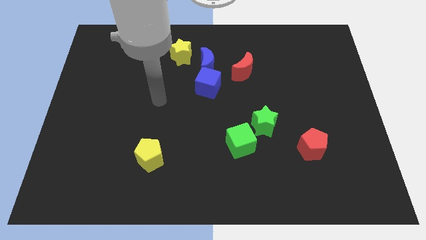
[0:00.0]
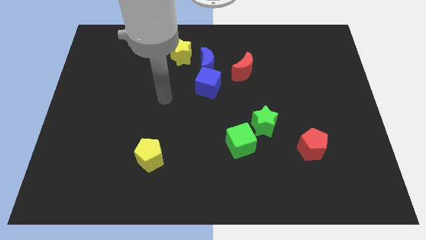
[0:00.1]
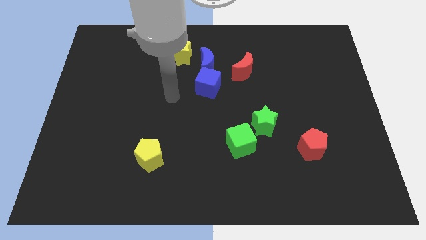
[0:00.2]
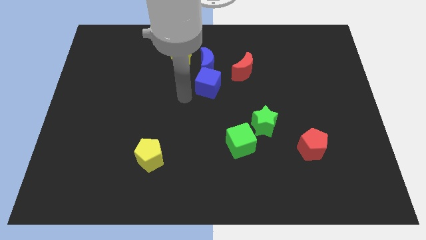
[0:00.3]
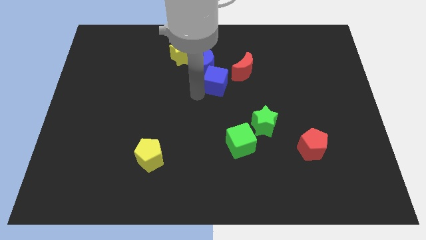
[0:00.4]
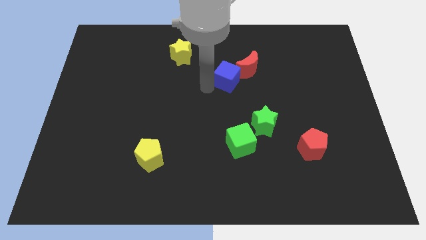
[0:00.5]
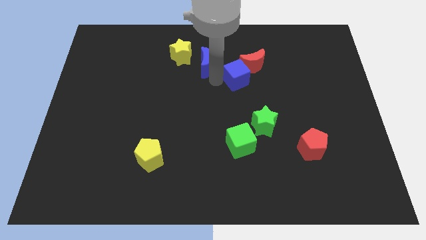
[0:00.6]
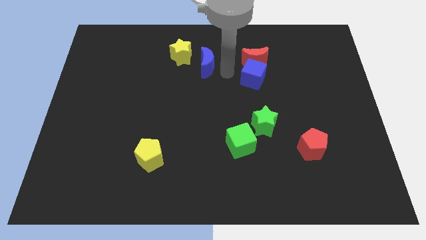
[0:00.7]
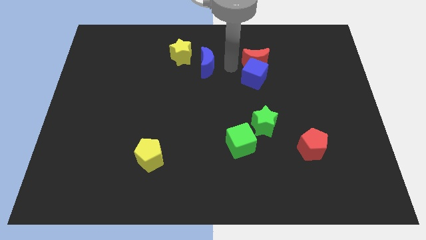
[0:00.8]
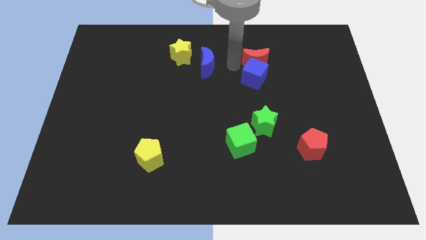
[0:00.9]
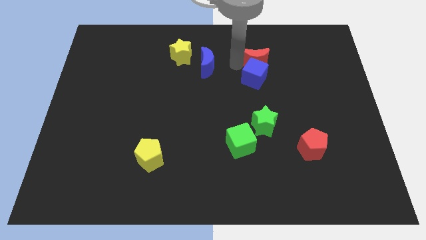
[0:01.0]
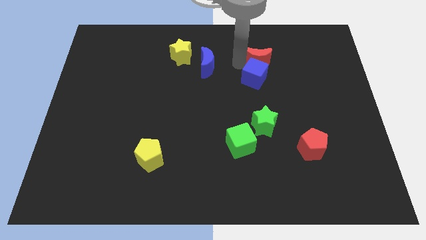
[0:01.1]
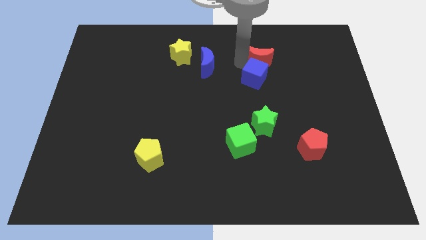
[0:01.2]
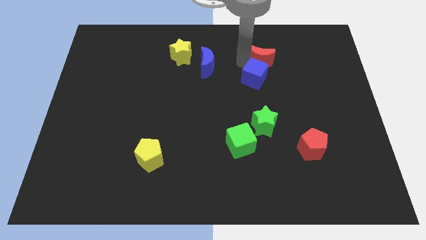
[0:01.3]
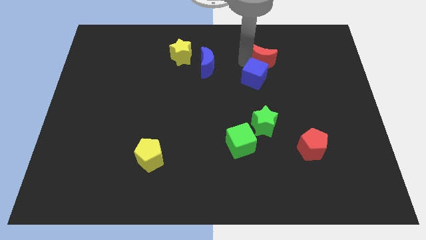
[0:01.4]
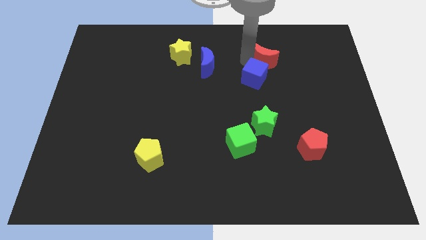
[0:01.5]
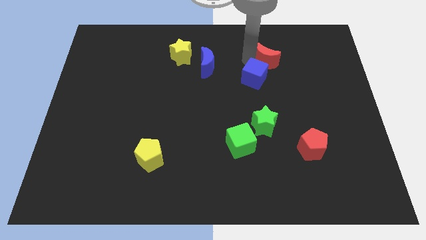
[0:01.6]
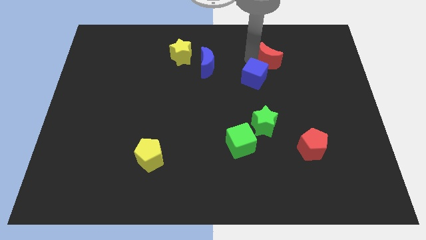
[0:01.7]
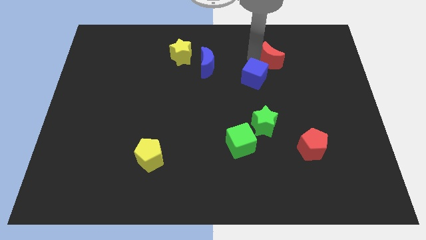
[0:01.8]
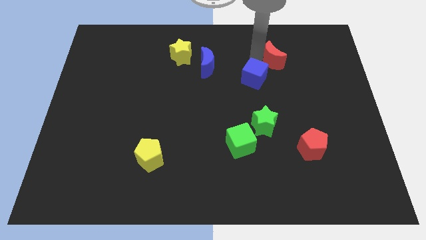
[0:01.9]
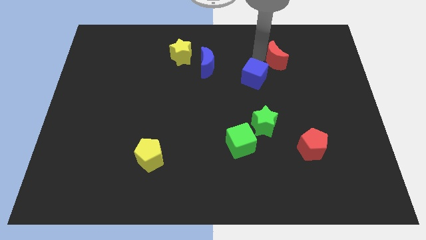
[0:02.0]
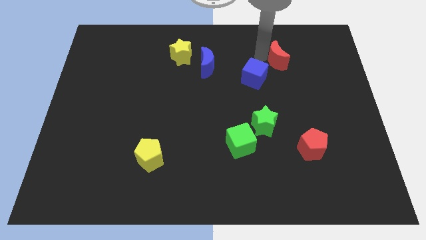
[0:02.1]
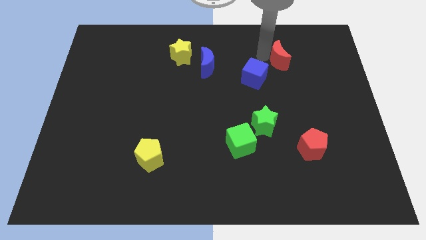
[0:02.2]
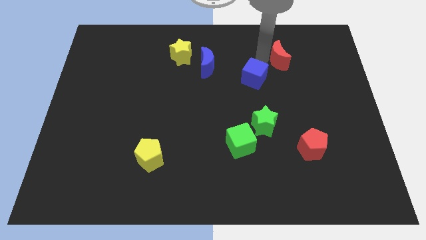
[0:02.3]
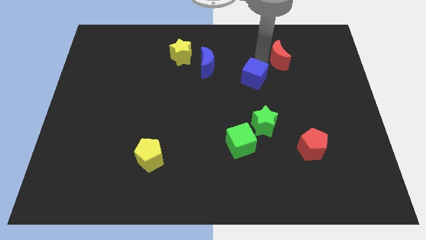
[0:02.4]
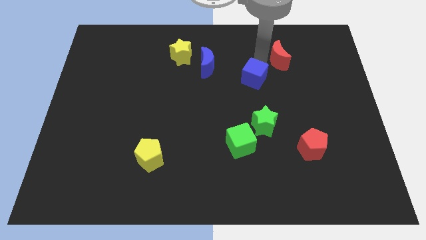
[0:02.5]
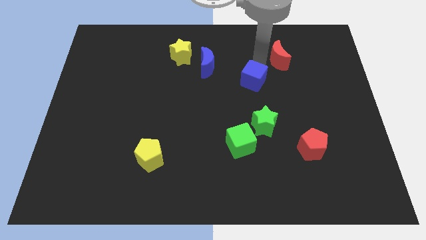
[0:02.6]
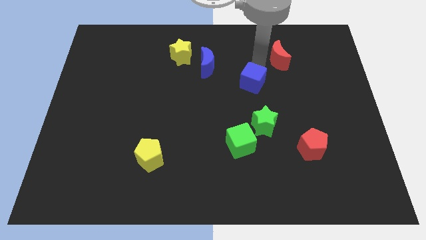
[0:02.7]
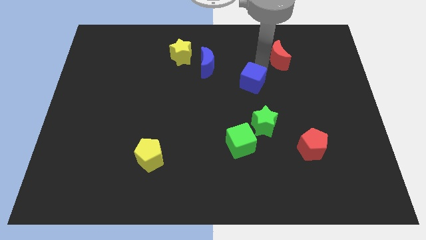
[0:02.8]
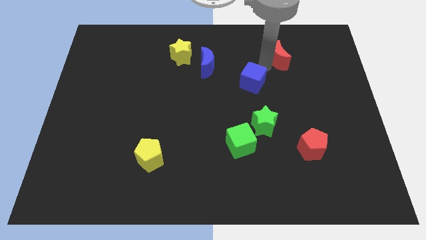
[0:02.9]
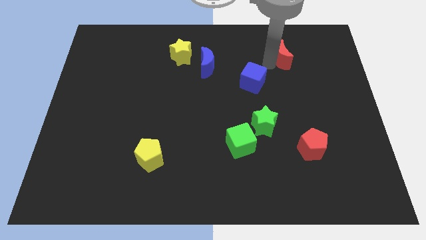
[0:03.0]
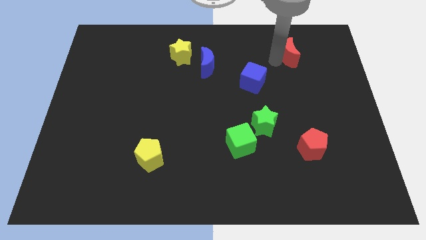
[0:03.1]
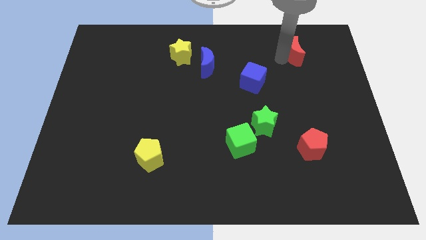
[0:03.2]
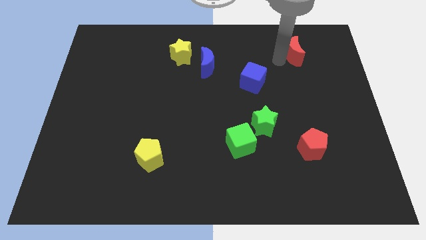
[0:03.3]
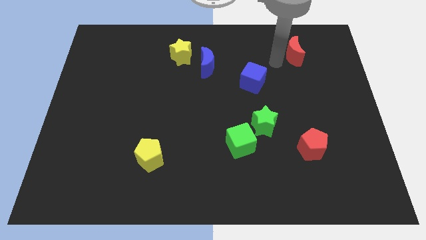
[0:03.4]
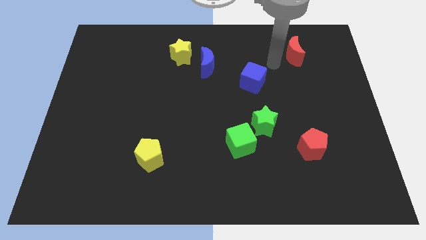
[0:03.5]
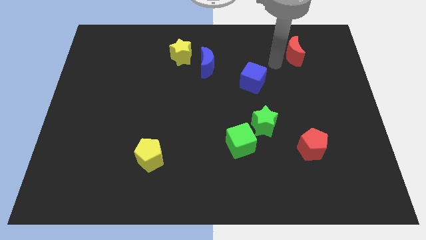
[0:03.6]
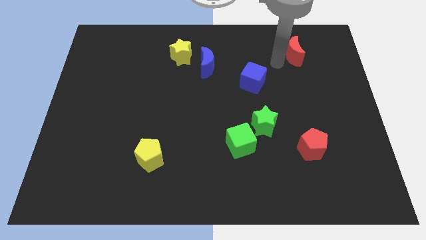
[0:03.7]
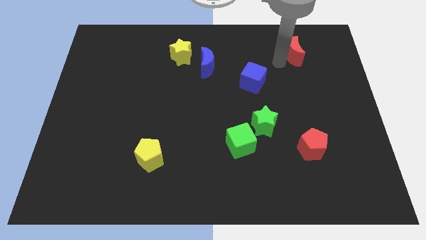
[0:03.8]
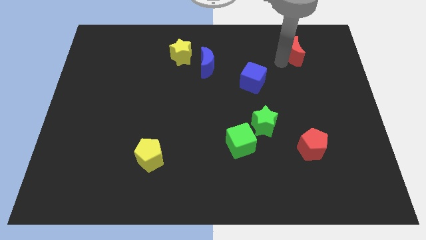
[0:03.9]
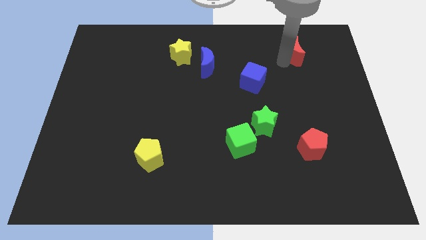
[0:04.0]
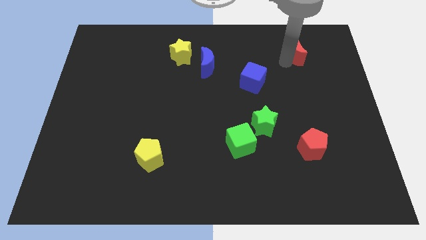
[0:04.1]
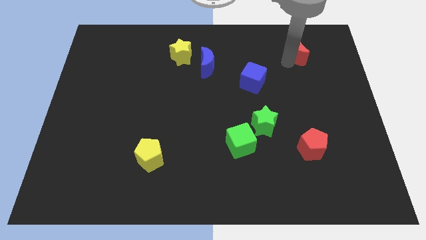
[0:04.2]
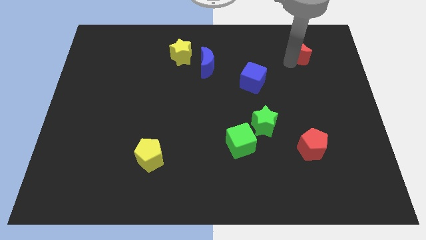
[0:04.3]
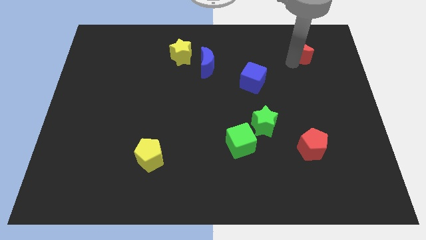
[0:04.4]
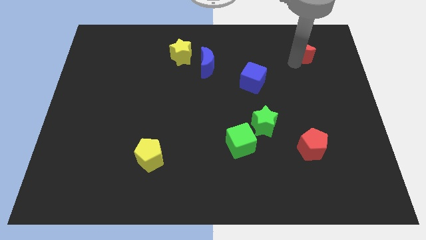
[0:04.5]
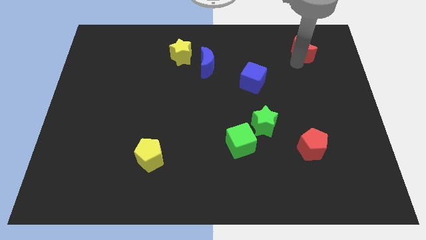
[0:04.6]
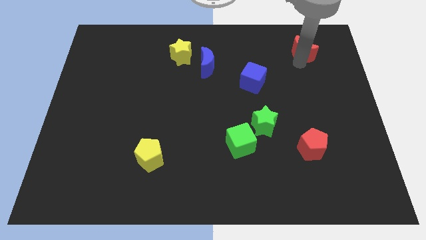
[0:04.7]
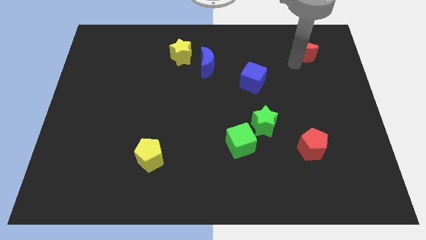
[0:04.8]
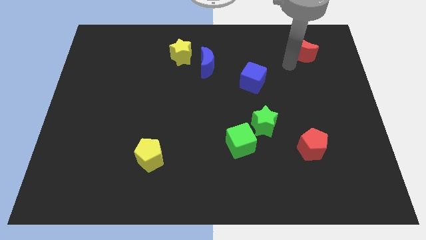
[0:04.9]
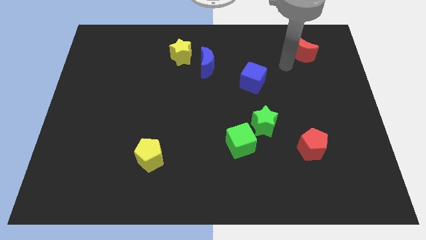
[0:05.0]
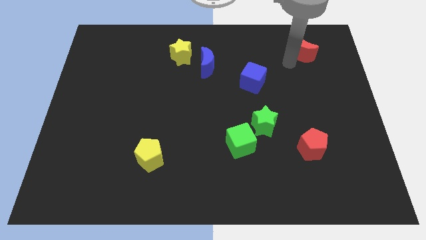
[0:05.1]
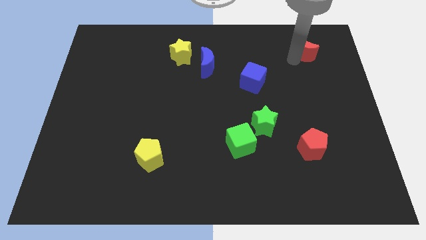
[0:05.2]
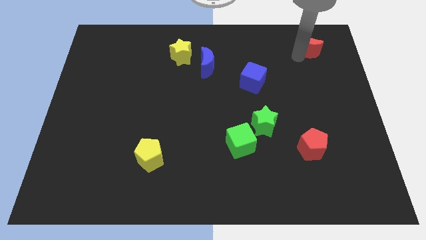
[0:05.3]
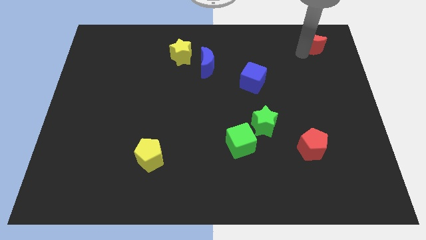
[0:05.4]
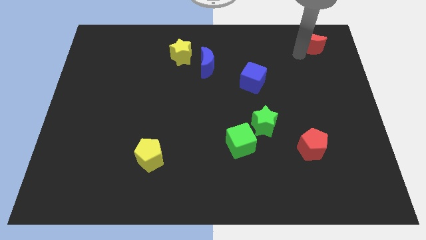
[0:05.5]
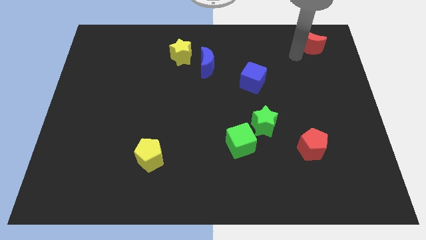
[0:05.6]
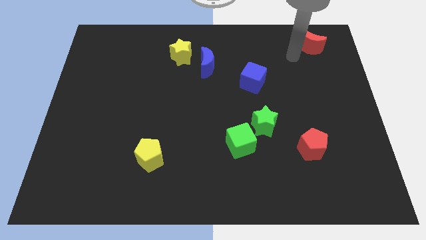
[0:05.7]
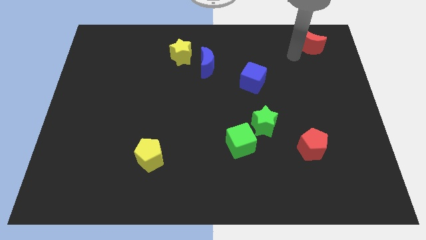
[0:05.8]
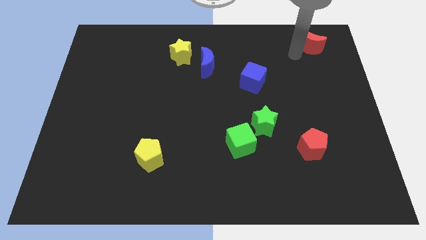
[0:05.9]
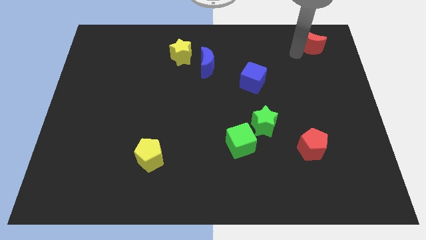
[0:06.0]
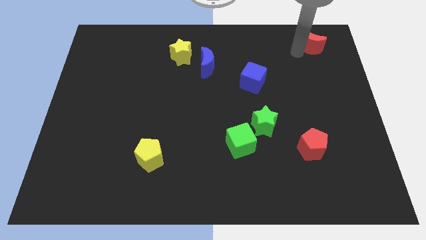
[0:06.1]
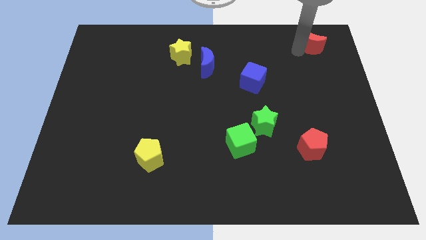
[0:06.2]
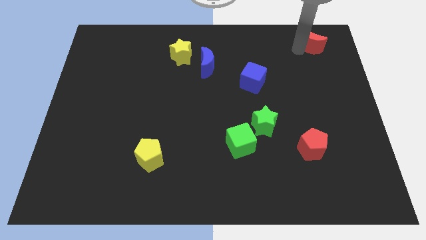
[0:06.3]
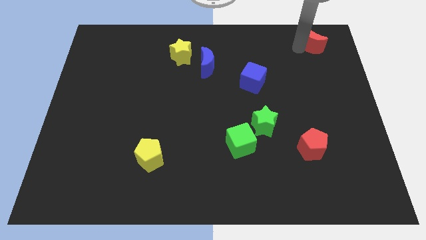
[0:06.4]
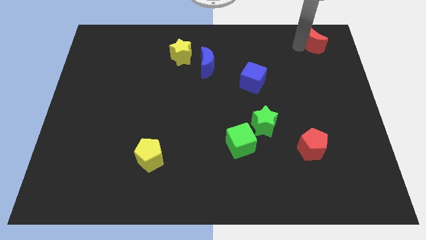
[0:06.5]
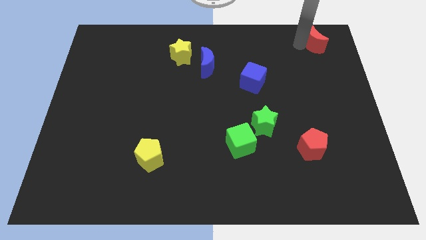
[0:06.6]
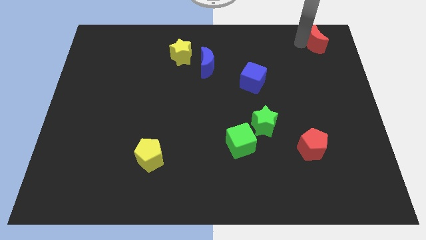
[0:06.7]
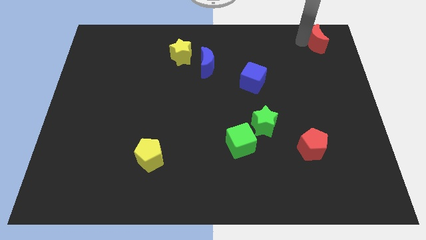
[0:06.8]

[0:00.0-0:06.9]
move the red moon to the top right of the board

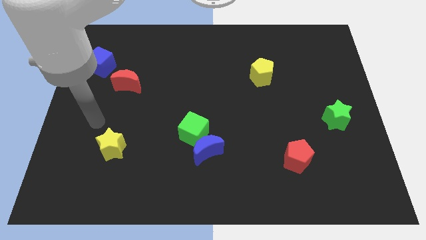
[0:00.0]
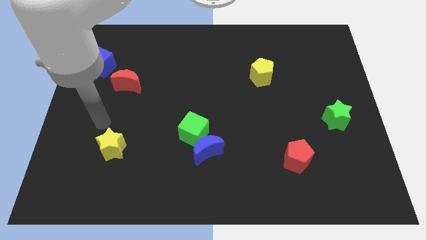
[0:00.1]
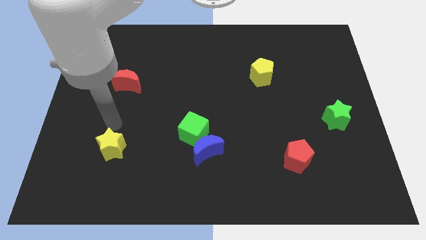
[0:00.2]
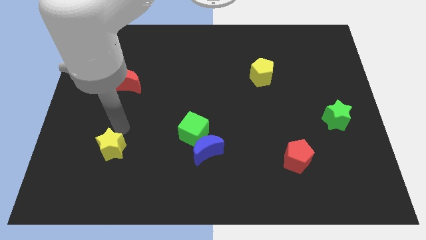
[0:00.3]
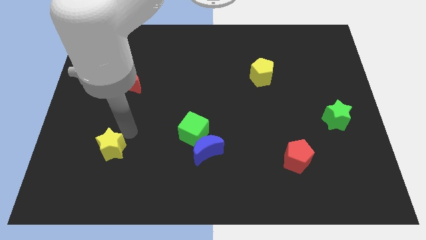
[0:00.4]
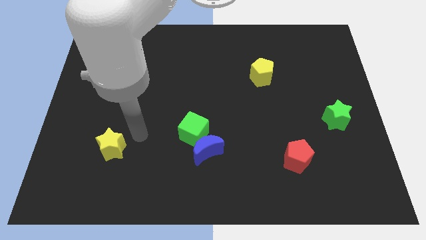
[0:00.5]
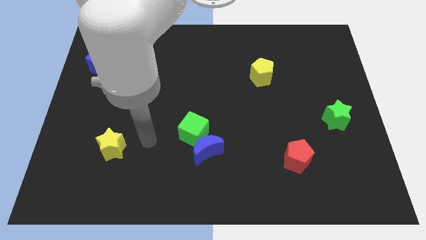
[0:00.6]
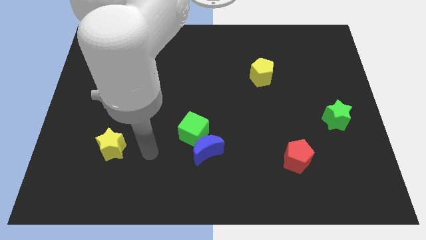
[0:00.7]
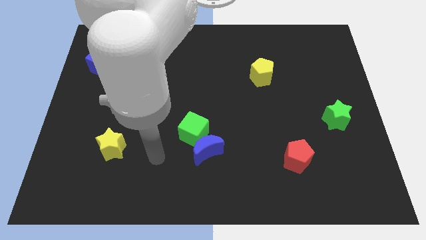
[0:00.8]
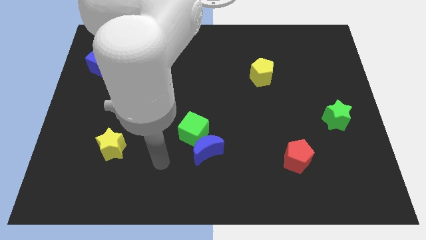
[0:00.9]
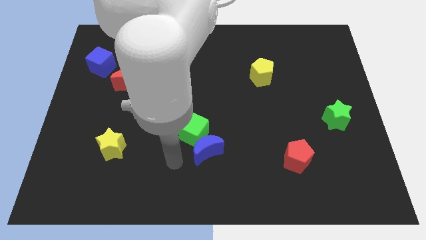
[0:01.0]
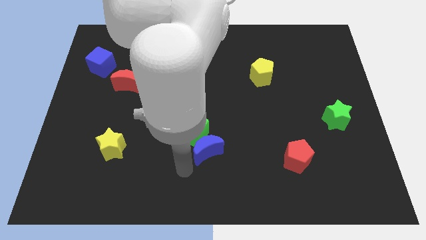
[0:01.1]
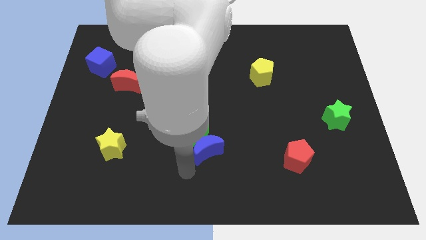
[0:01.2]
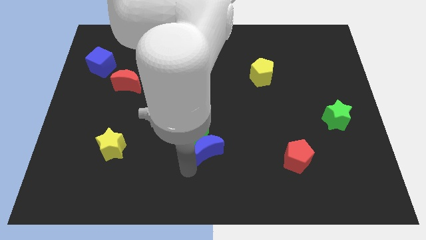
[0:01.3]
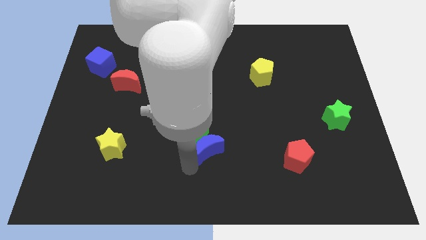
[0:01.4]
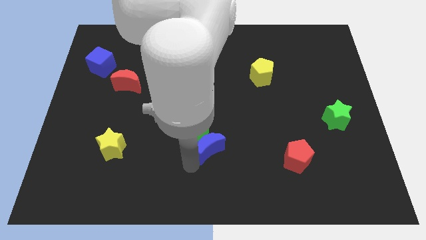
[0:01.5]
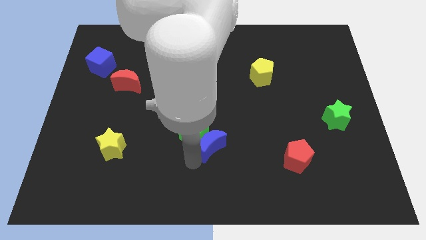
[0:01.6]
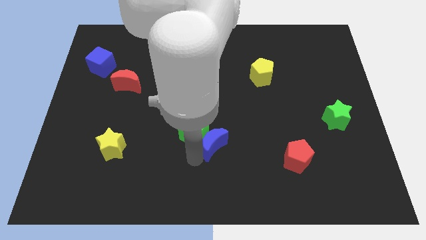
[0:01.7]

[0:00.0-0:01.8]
push the blue moon to the center
